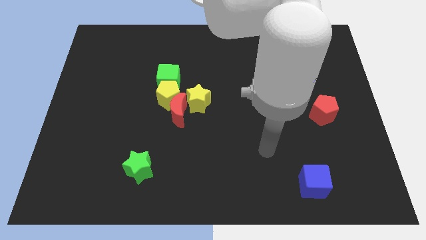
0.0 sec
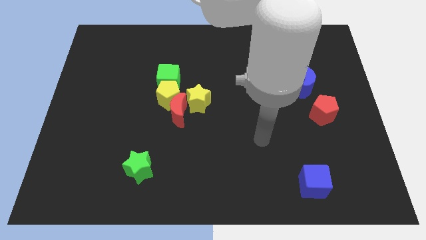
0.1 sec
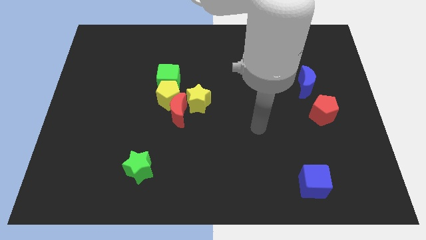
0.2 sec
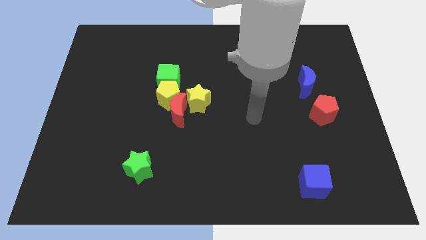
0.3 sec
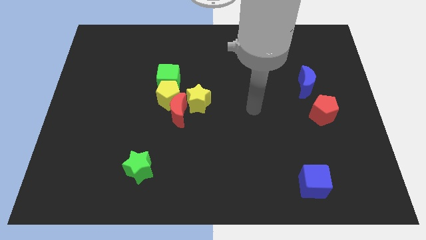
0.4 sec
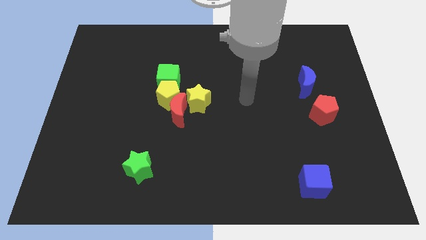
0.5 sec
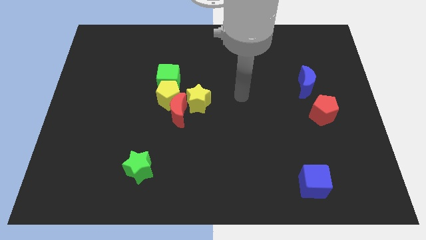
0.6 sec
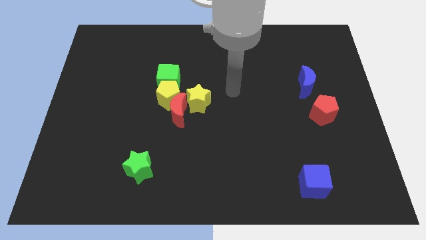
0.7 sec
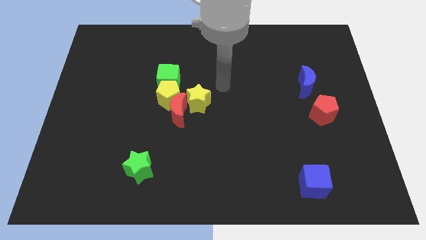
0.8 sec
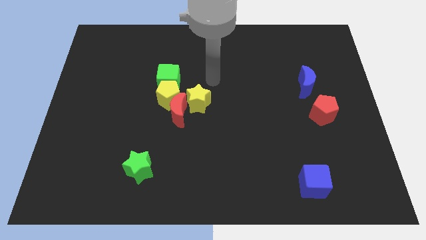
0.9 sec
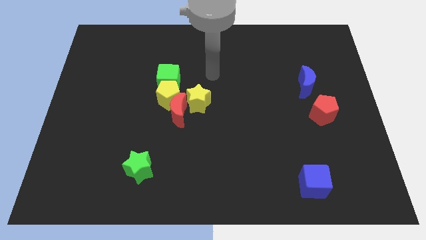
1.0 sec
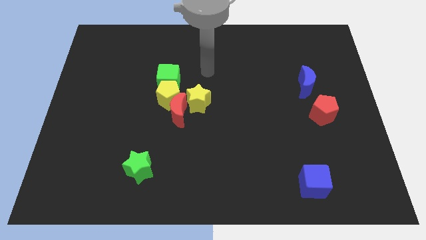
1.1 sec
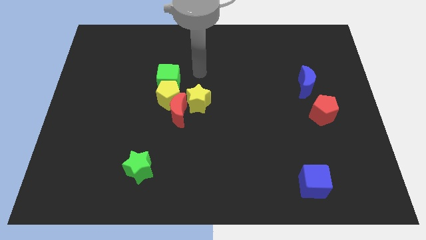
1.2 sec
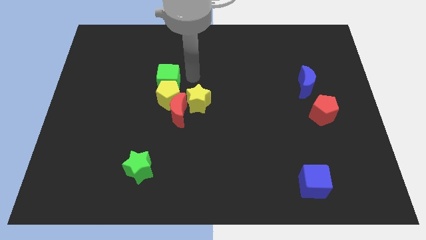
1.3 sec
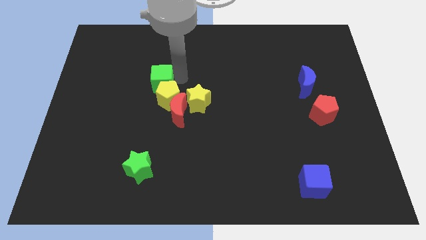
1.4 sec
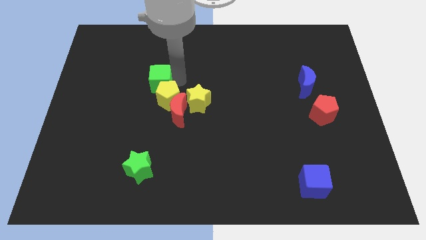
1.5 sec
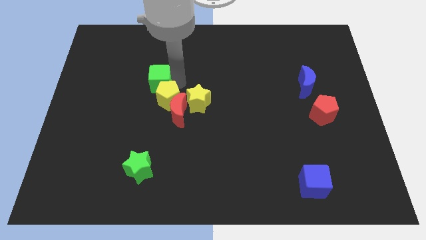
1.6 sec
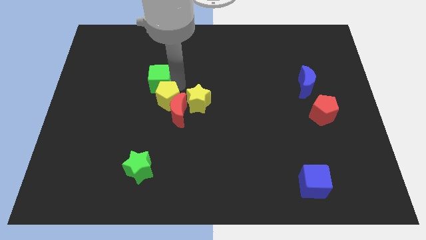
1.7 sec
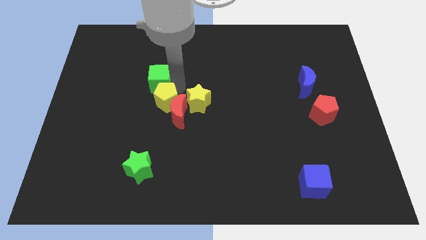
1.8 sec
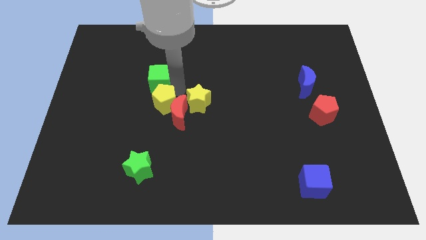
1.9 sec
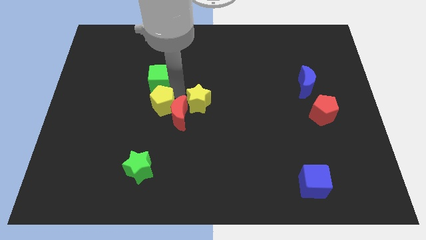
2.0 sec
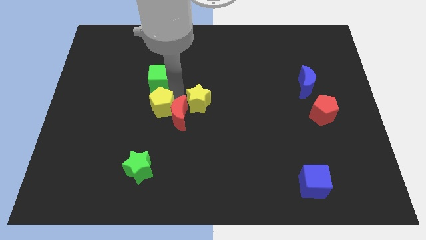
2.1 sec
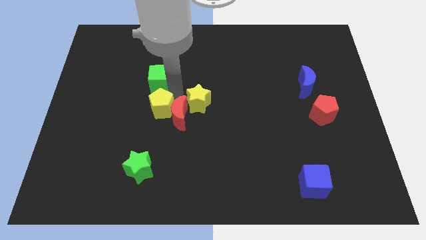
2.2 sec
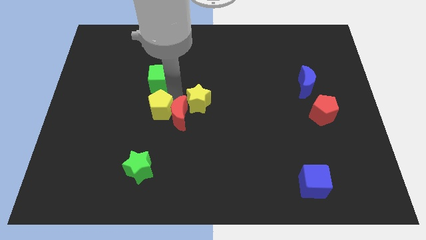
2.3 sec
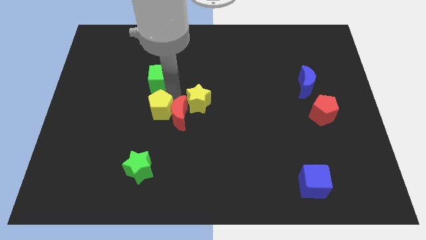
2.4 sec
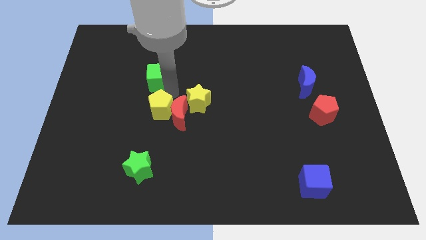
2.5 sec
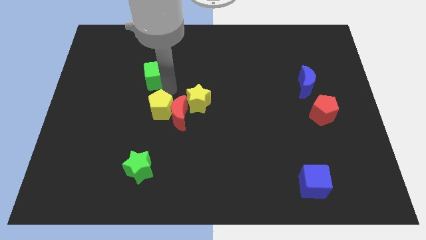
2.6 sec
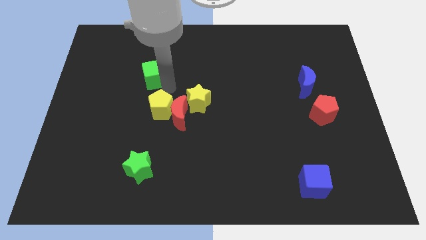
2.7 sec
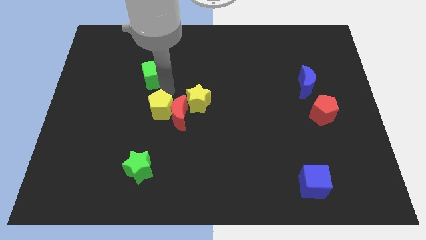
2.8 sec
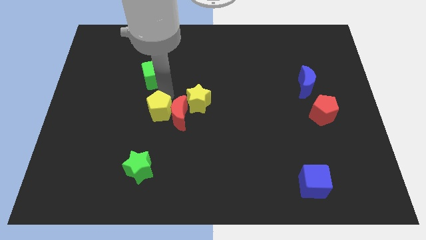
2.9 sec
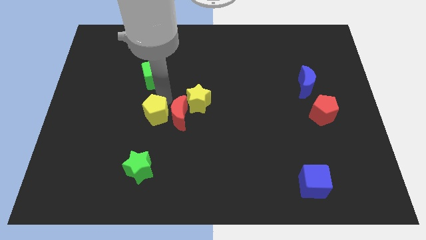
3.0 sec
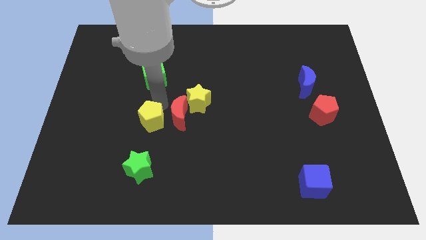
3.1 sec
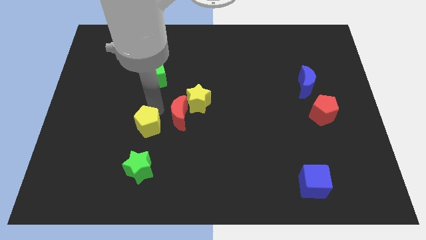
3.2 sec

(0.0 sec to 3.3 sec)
move the yellow pentagon downwards a bit

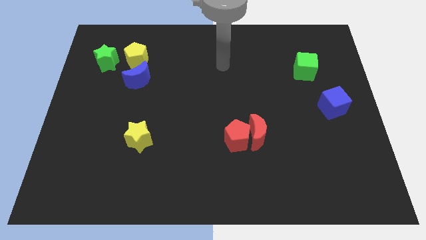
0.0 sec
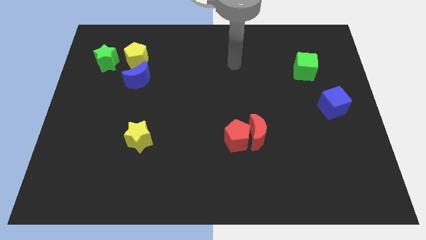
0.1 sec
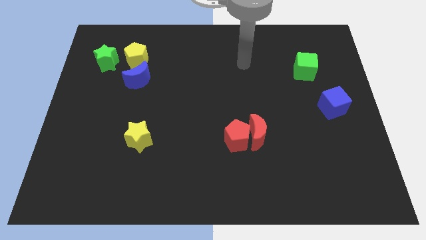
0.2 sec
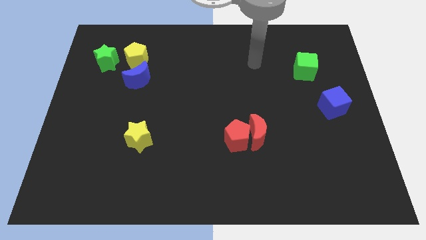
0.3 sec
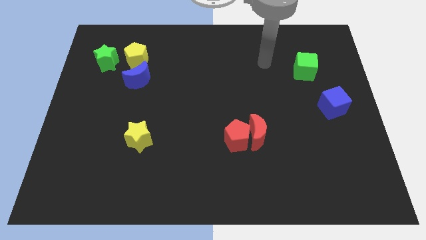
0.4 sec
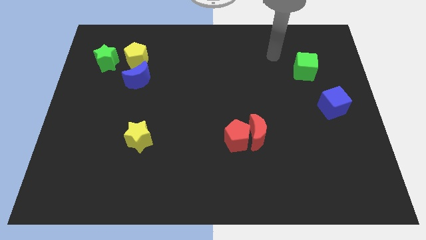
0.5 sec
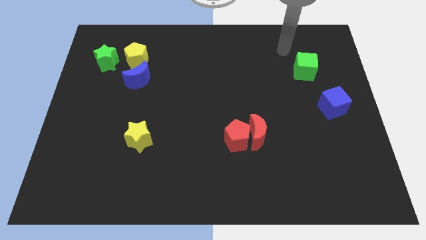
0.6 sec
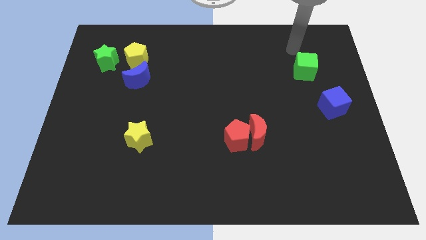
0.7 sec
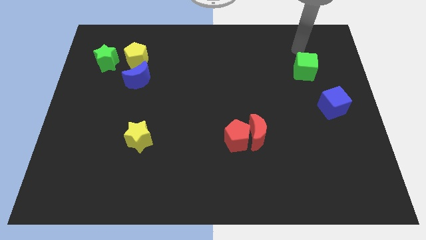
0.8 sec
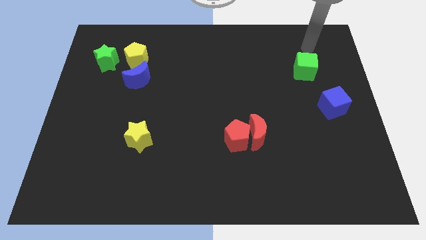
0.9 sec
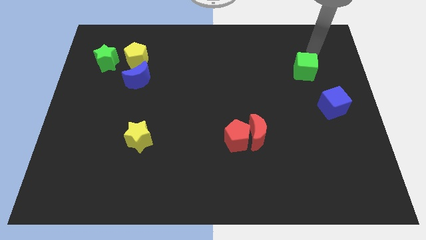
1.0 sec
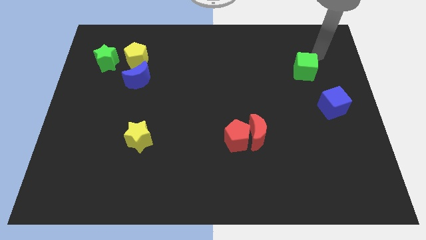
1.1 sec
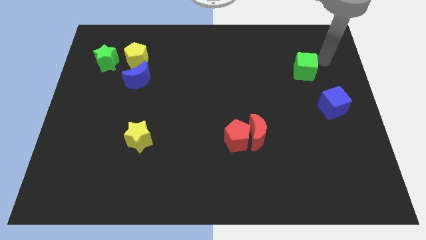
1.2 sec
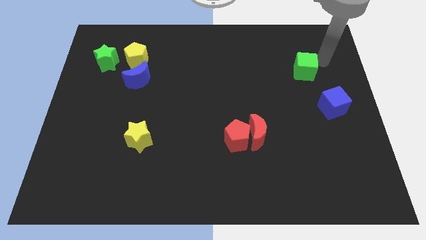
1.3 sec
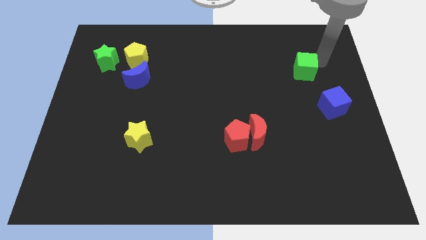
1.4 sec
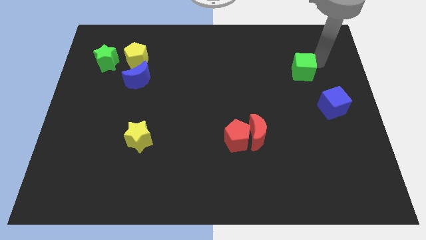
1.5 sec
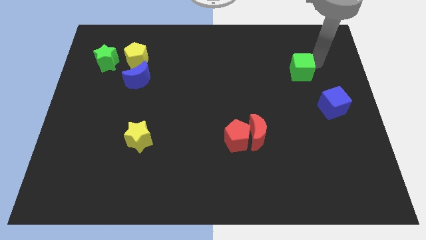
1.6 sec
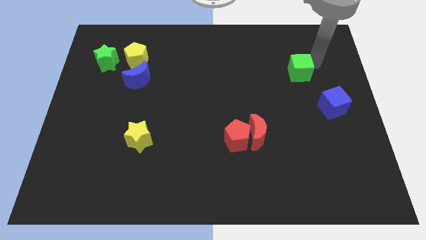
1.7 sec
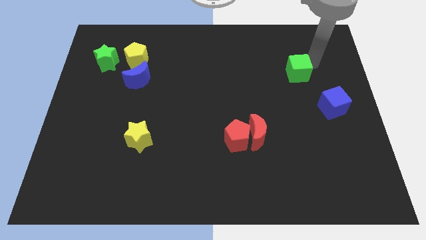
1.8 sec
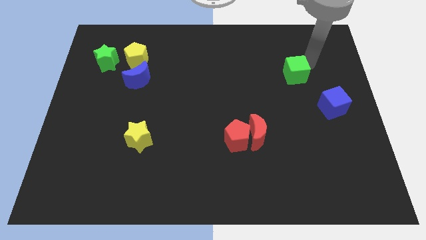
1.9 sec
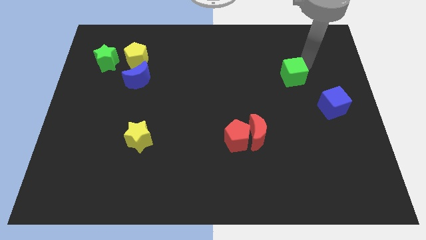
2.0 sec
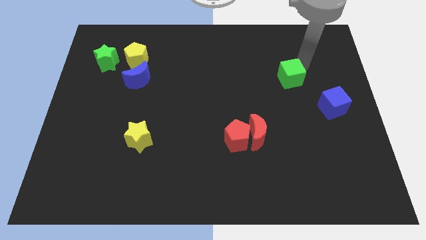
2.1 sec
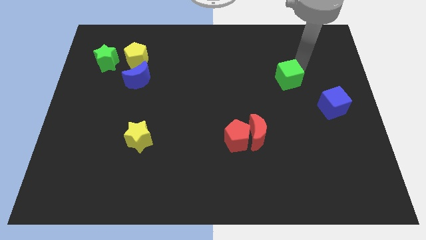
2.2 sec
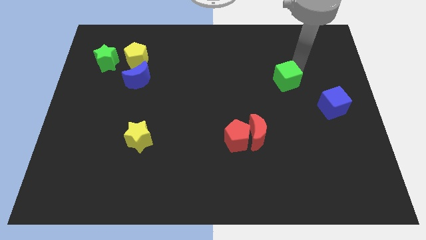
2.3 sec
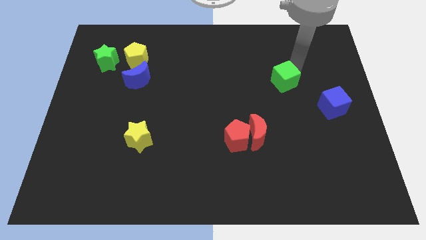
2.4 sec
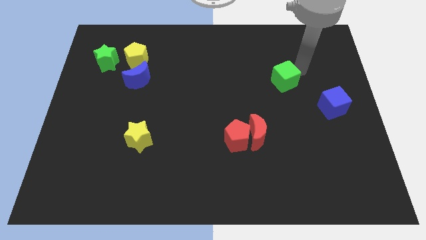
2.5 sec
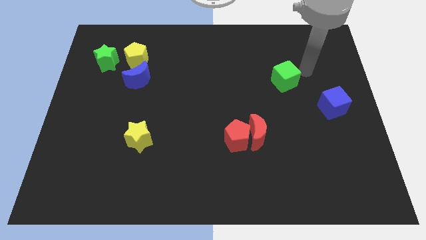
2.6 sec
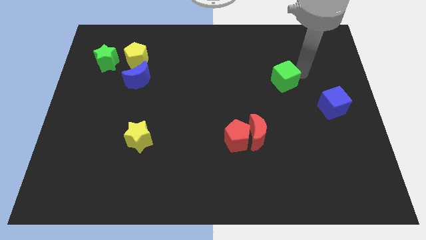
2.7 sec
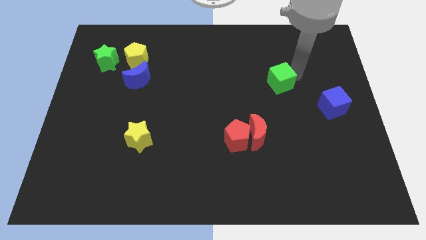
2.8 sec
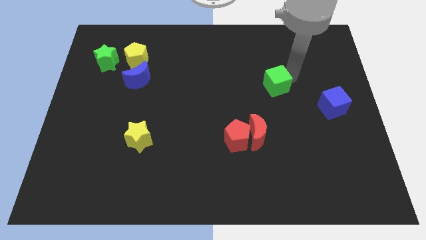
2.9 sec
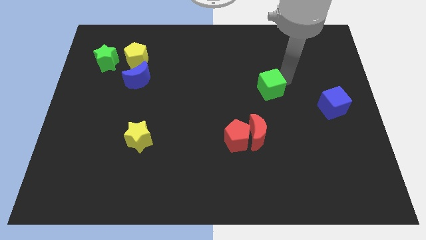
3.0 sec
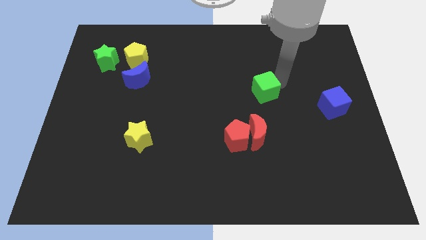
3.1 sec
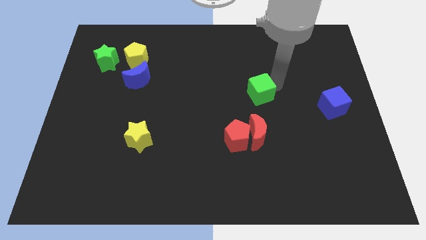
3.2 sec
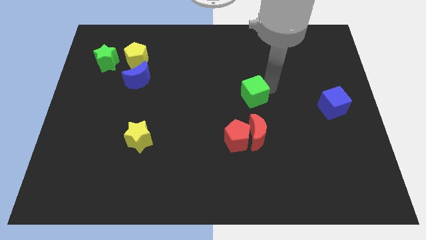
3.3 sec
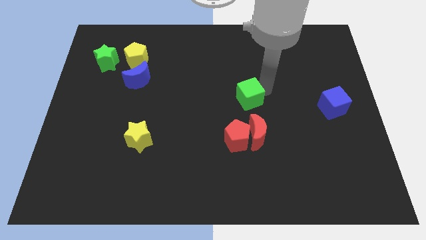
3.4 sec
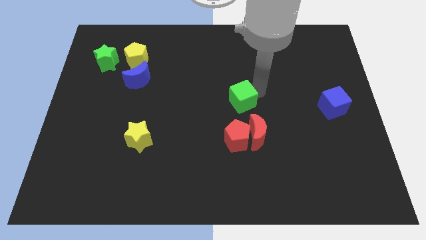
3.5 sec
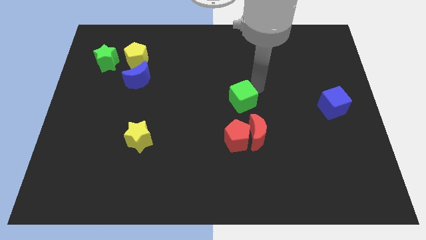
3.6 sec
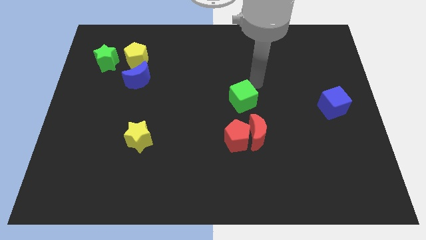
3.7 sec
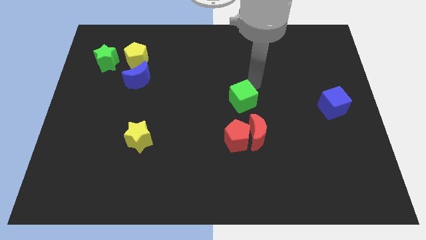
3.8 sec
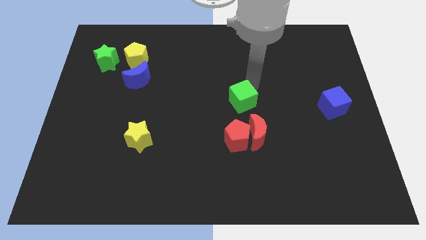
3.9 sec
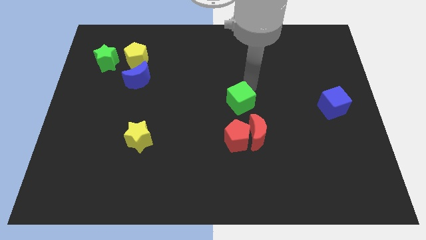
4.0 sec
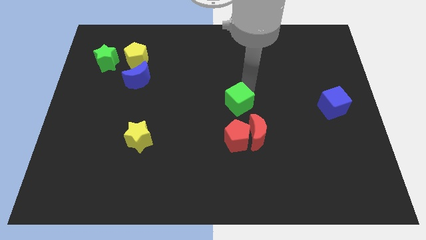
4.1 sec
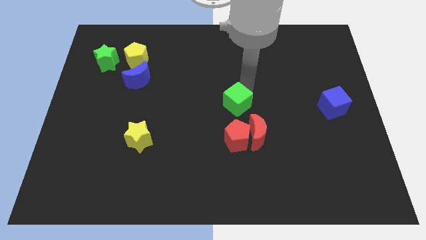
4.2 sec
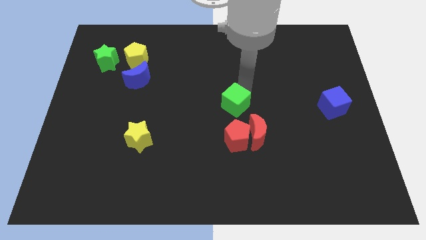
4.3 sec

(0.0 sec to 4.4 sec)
slide the green cube downwards and left diagonally

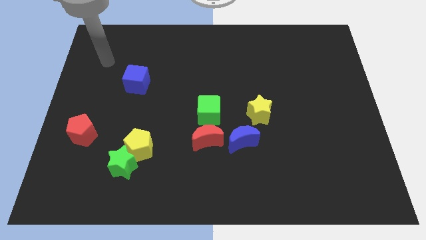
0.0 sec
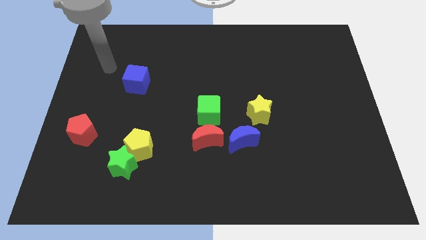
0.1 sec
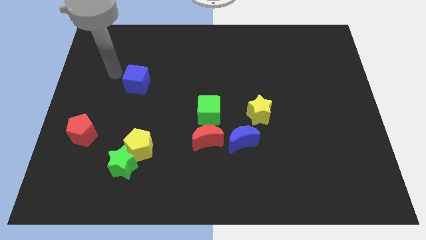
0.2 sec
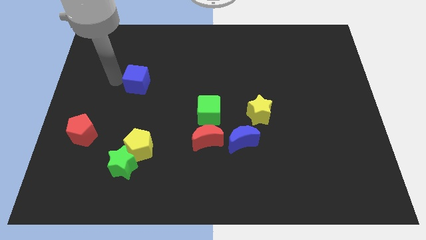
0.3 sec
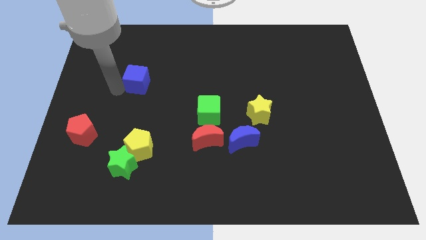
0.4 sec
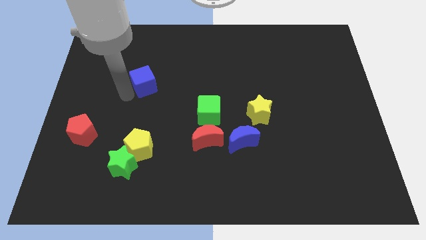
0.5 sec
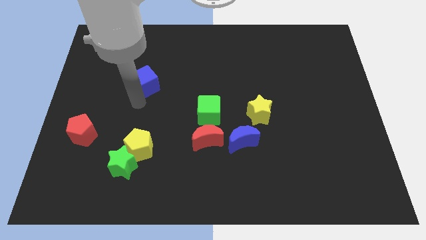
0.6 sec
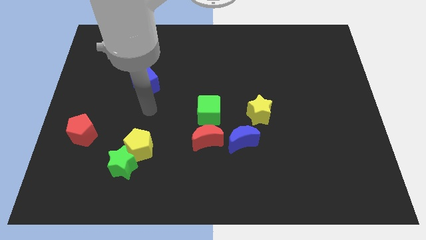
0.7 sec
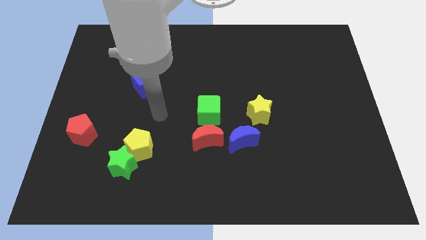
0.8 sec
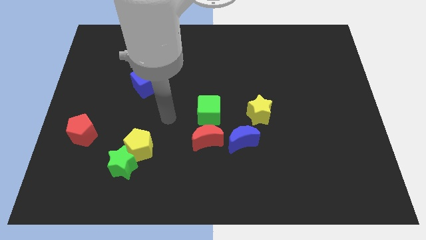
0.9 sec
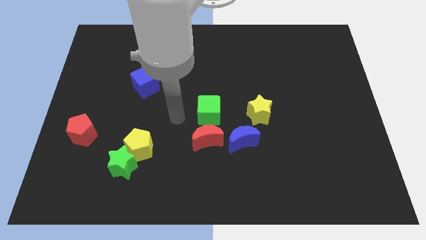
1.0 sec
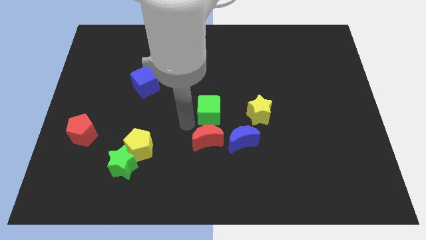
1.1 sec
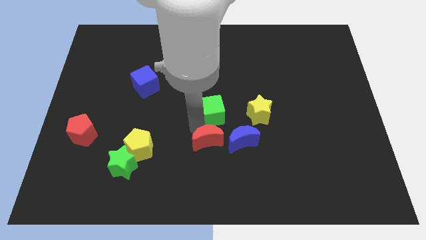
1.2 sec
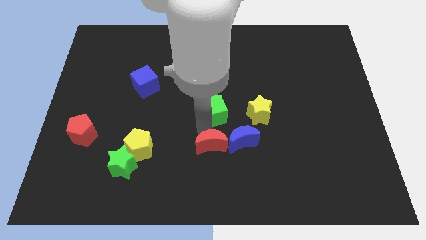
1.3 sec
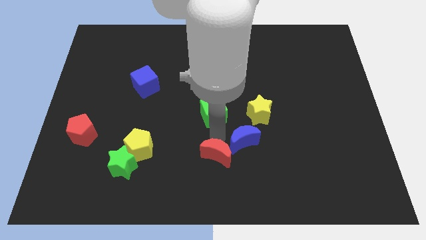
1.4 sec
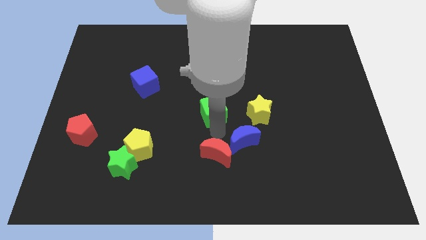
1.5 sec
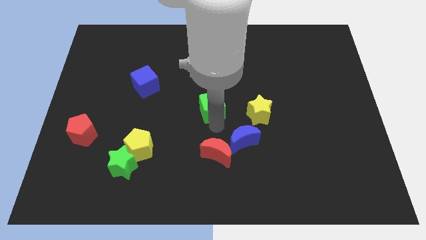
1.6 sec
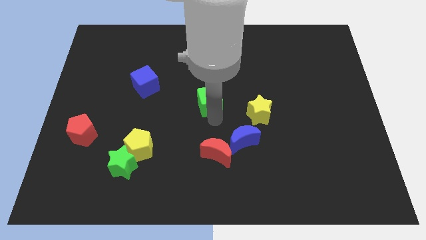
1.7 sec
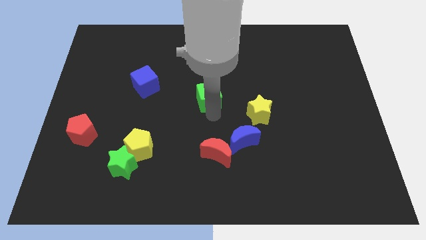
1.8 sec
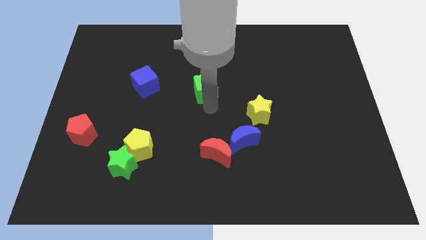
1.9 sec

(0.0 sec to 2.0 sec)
move the green cube a little upwards
